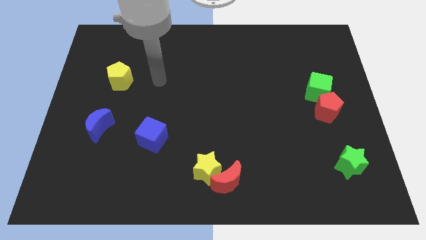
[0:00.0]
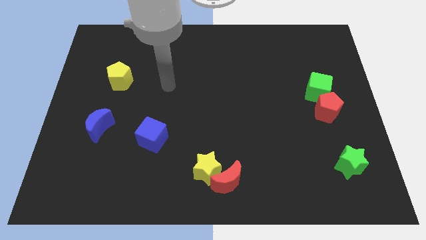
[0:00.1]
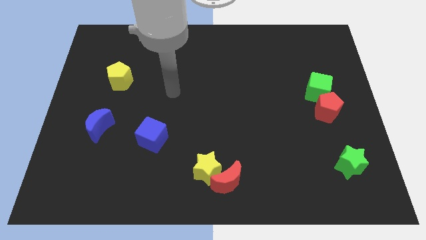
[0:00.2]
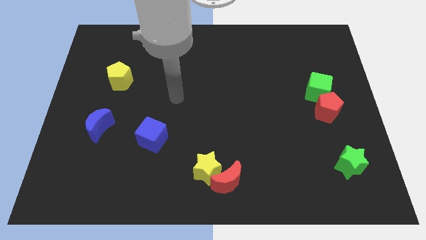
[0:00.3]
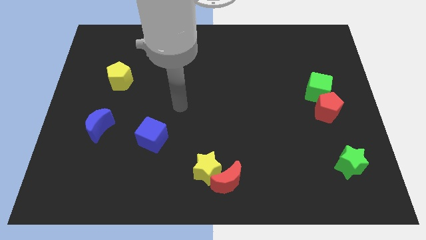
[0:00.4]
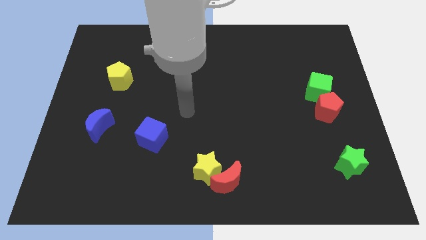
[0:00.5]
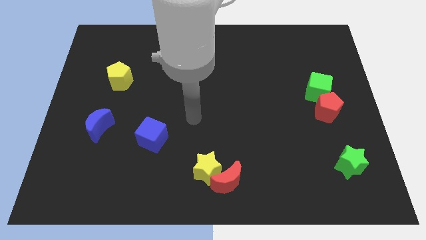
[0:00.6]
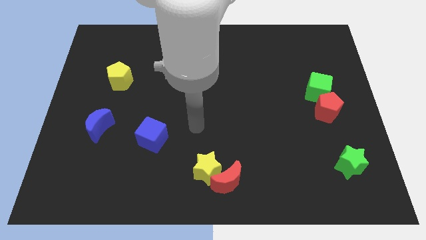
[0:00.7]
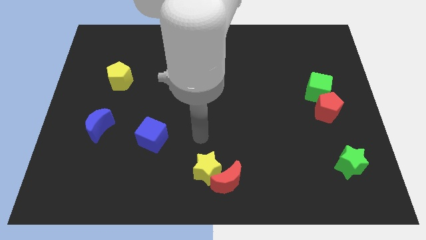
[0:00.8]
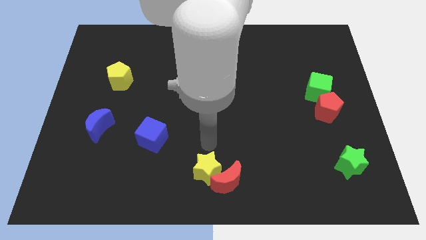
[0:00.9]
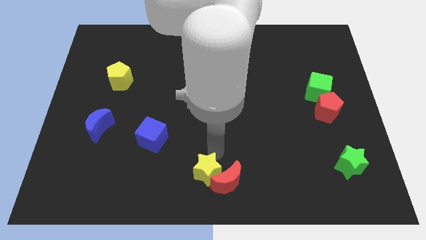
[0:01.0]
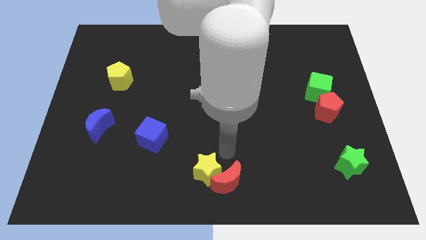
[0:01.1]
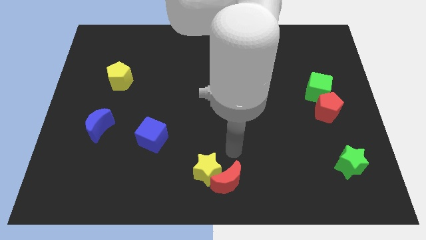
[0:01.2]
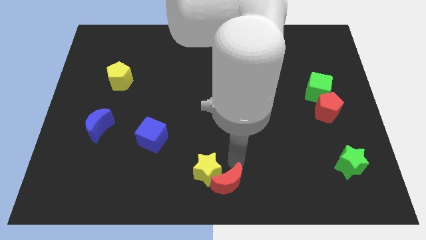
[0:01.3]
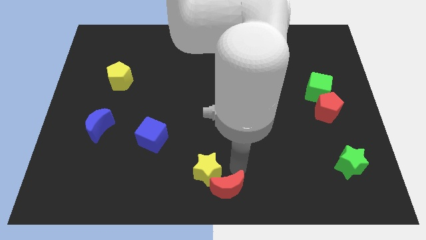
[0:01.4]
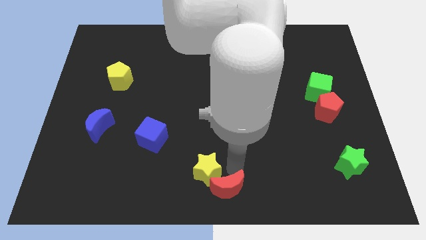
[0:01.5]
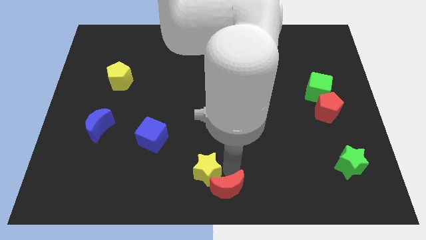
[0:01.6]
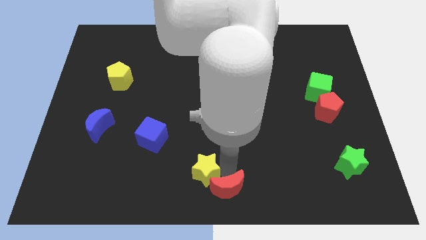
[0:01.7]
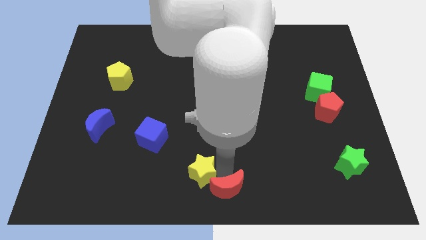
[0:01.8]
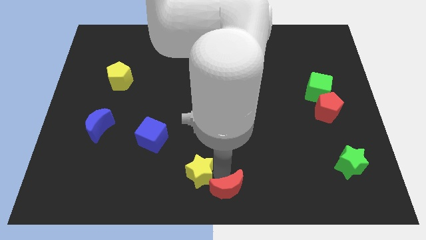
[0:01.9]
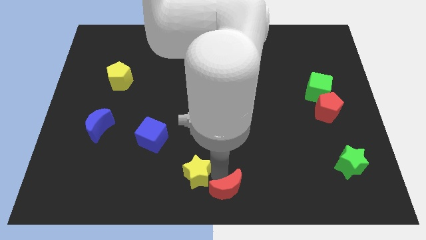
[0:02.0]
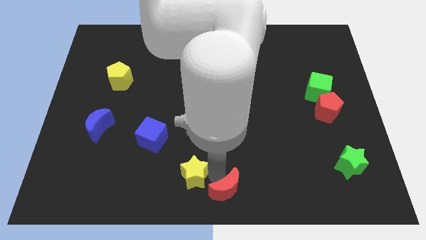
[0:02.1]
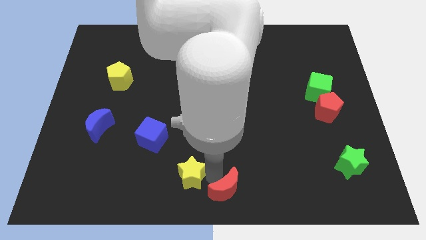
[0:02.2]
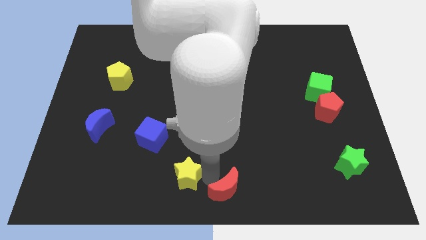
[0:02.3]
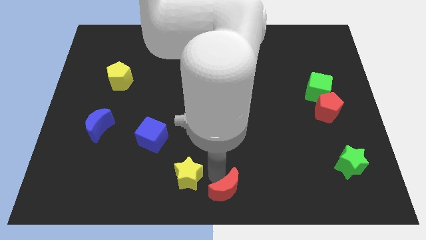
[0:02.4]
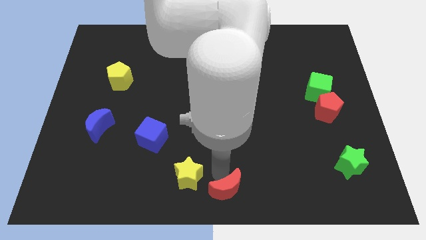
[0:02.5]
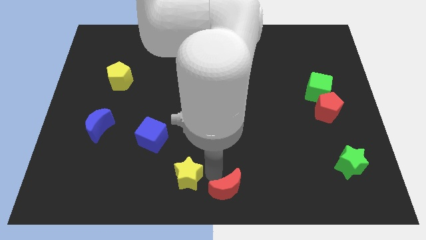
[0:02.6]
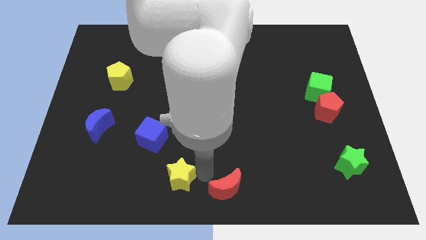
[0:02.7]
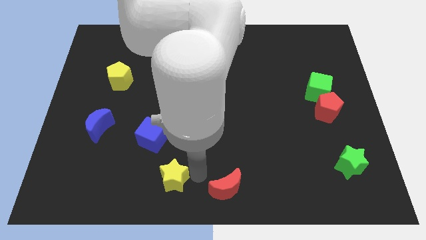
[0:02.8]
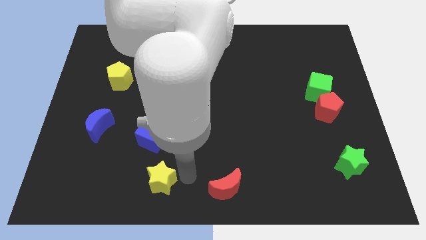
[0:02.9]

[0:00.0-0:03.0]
push the yellow star a little left

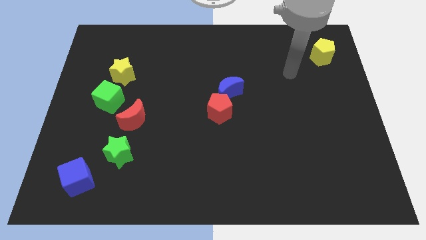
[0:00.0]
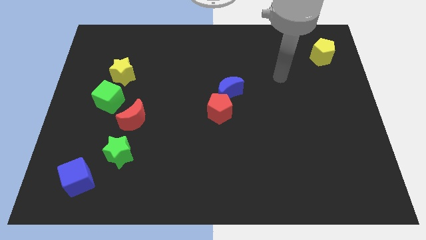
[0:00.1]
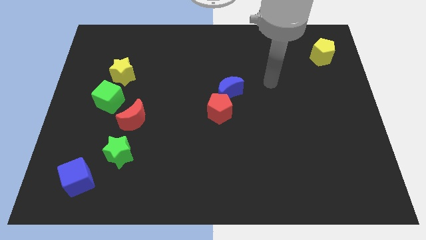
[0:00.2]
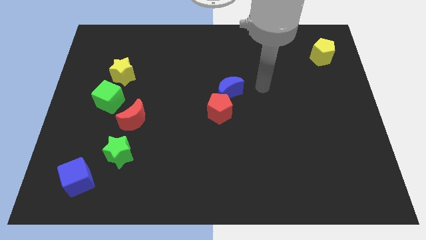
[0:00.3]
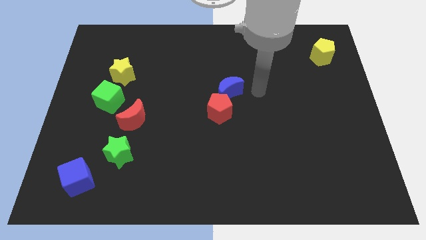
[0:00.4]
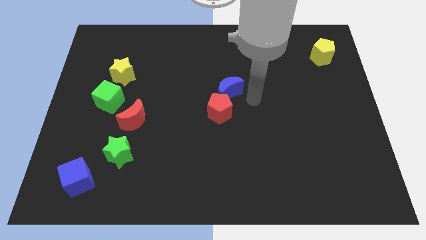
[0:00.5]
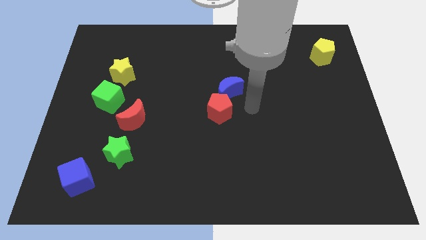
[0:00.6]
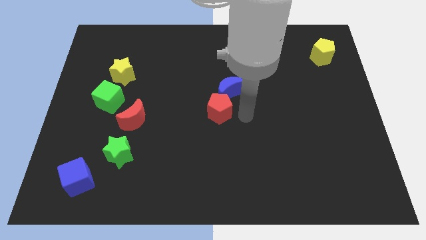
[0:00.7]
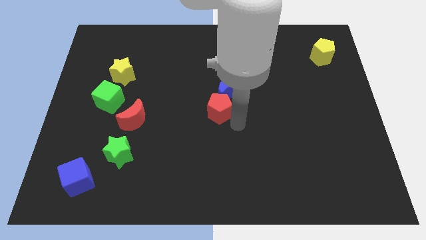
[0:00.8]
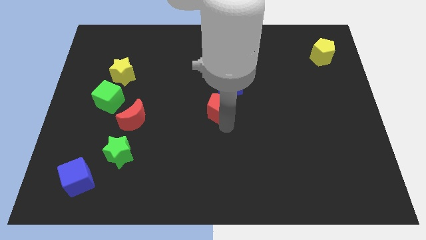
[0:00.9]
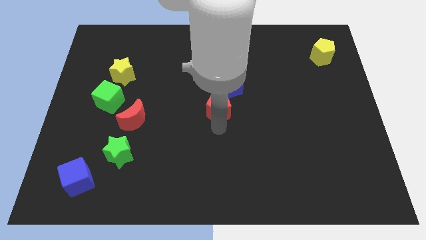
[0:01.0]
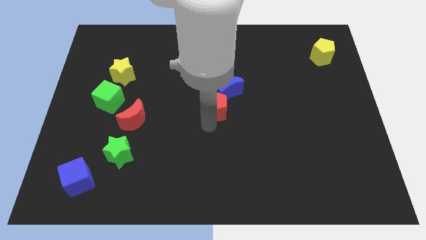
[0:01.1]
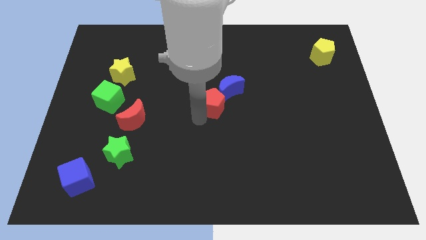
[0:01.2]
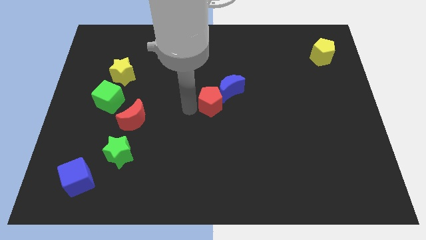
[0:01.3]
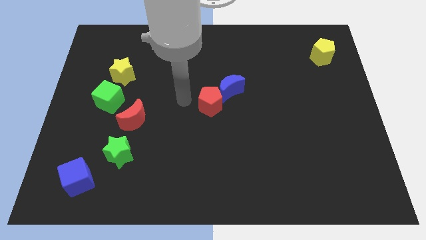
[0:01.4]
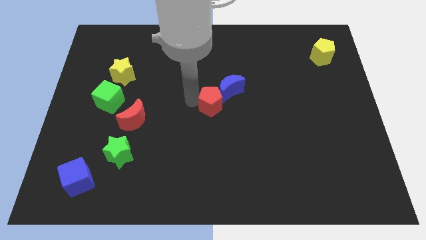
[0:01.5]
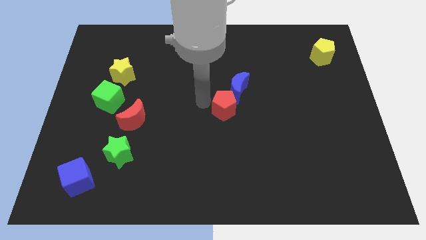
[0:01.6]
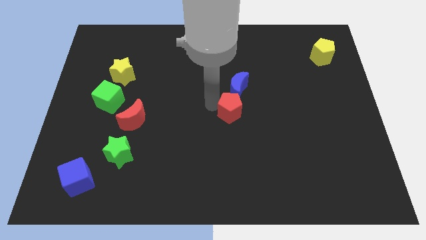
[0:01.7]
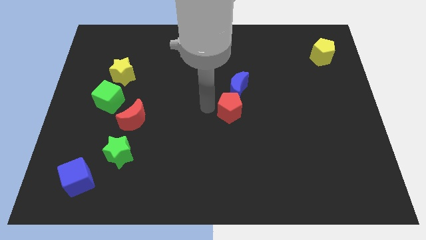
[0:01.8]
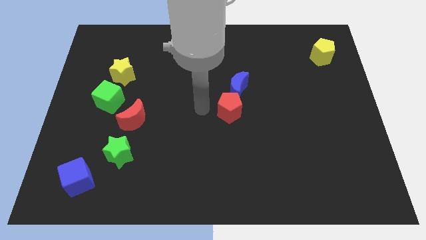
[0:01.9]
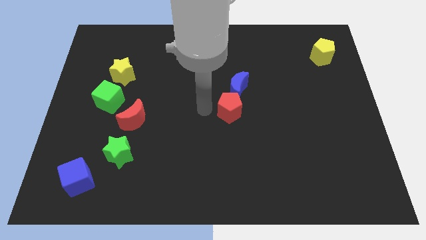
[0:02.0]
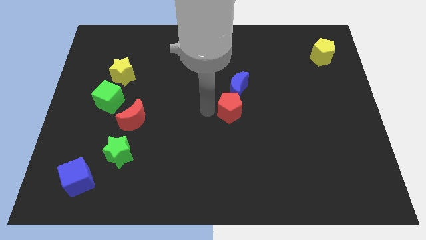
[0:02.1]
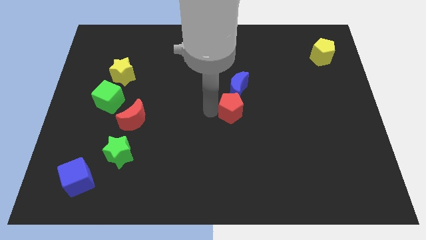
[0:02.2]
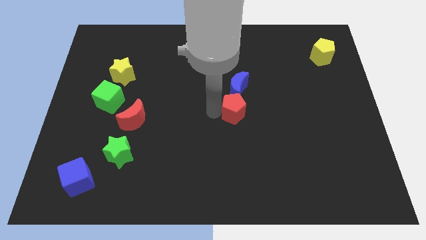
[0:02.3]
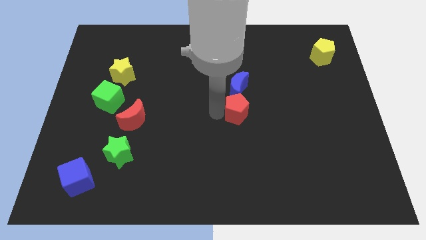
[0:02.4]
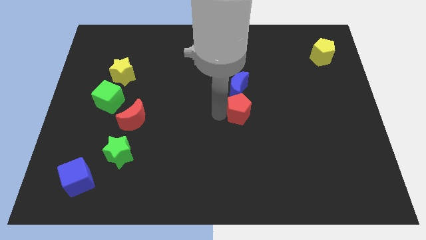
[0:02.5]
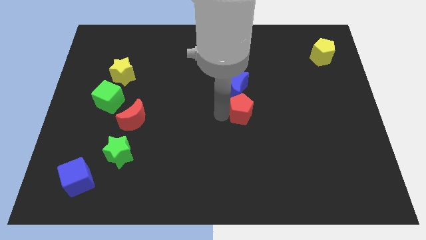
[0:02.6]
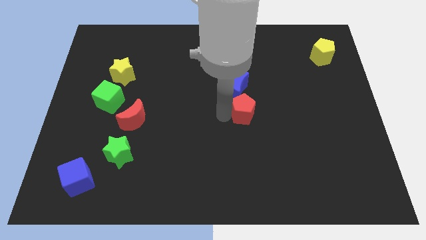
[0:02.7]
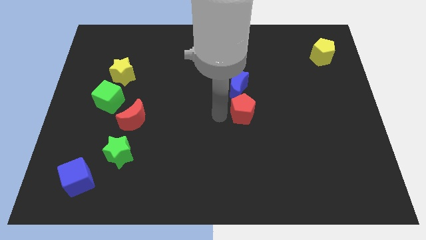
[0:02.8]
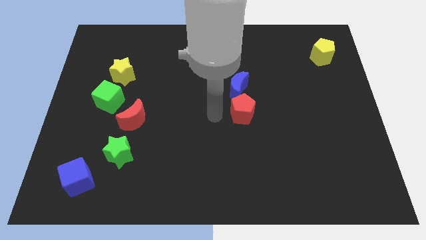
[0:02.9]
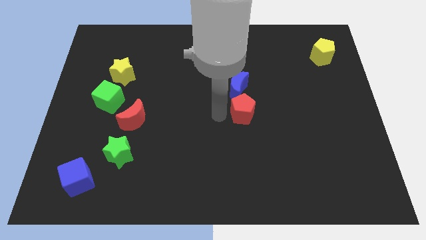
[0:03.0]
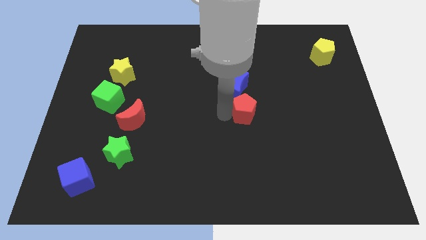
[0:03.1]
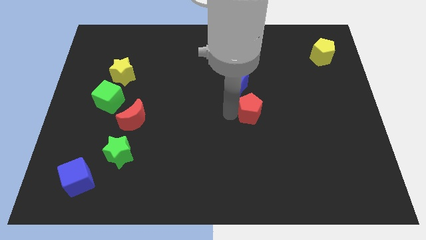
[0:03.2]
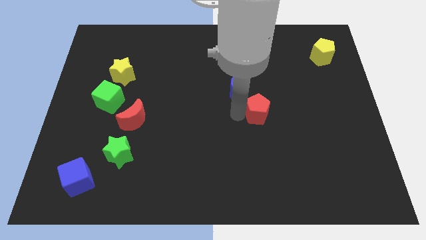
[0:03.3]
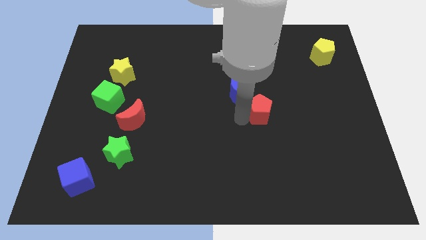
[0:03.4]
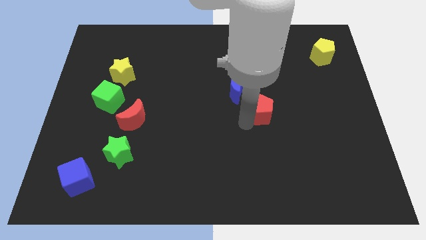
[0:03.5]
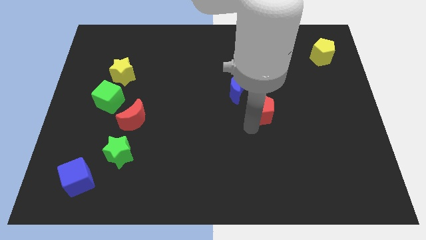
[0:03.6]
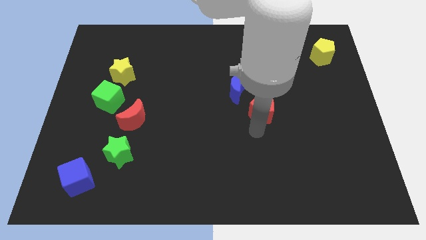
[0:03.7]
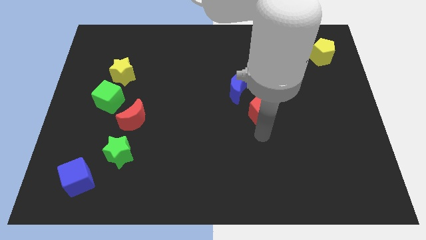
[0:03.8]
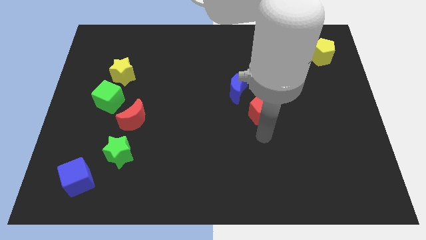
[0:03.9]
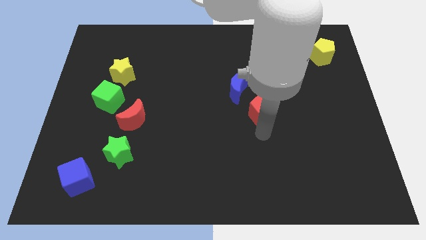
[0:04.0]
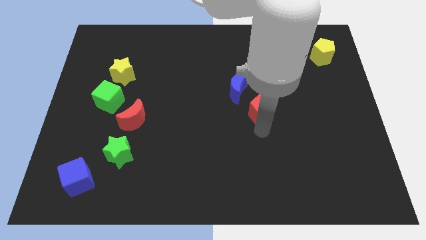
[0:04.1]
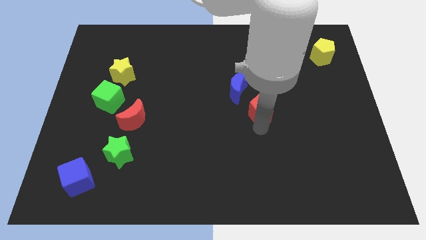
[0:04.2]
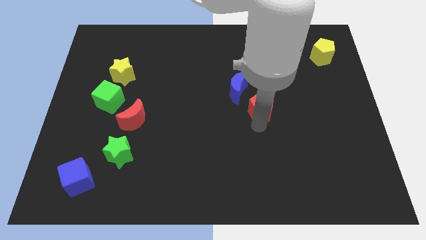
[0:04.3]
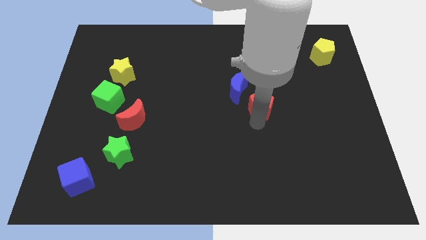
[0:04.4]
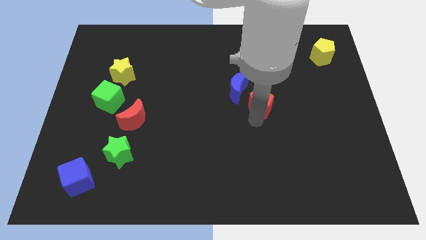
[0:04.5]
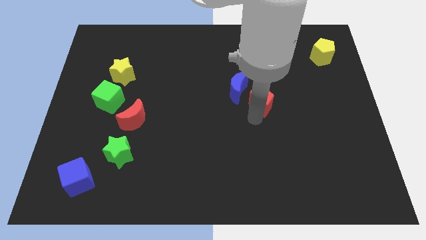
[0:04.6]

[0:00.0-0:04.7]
slightly push the red pentagon diagonally up and to the right

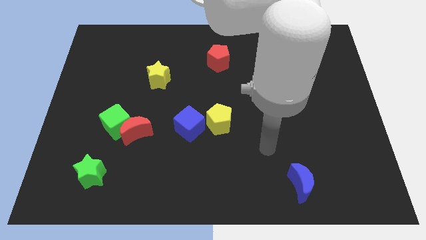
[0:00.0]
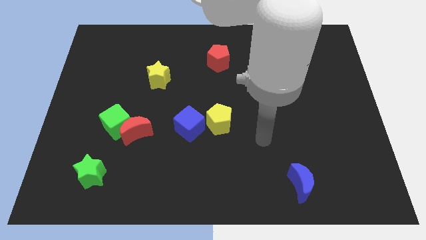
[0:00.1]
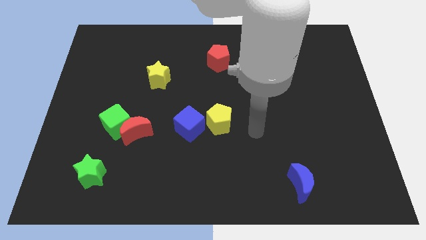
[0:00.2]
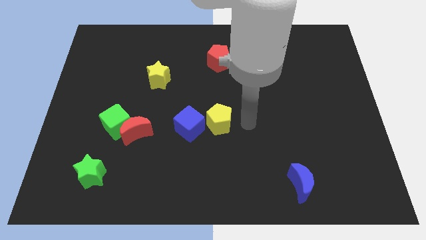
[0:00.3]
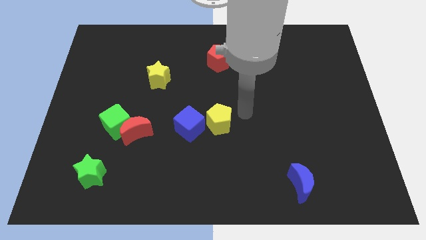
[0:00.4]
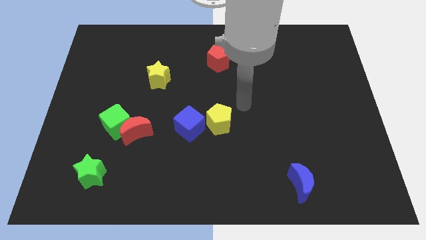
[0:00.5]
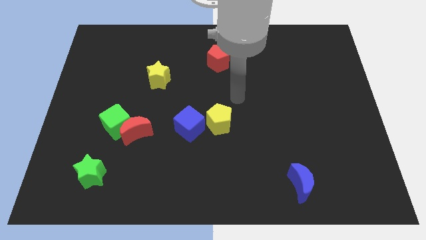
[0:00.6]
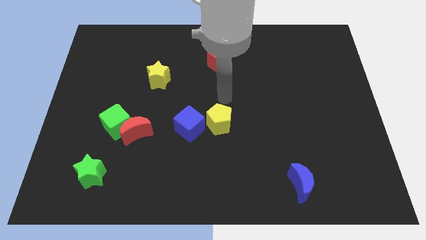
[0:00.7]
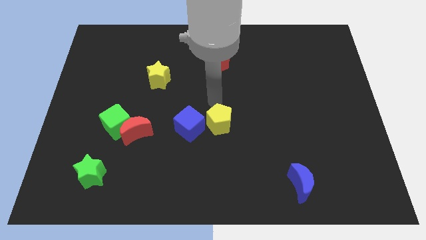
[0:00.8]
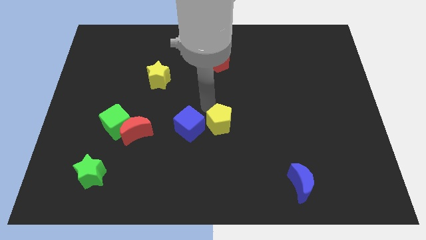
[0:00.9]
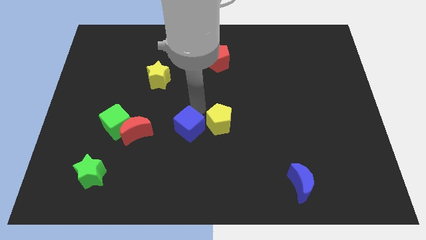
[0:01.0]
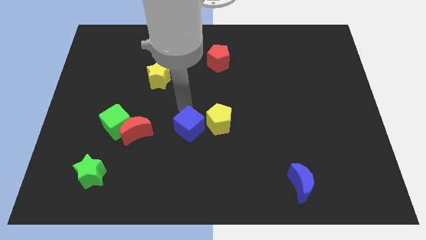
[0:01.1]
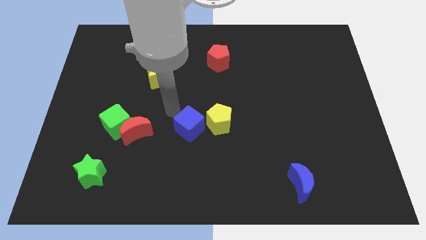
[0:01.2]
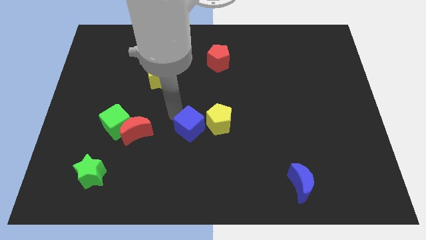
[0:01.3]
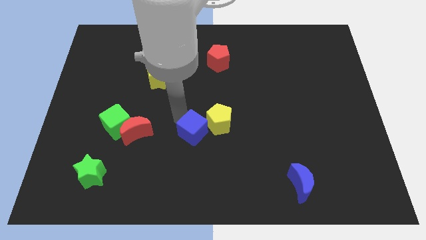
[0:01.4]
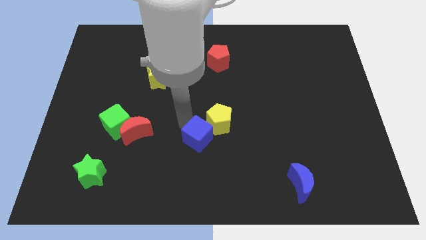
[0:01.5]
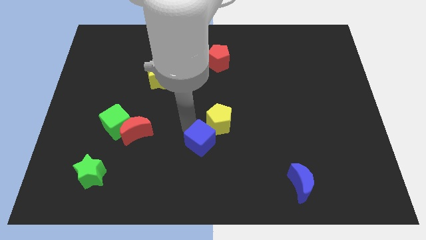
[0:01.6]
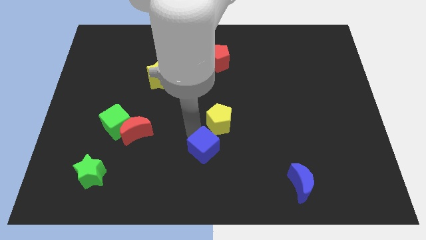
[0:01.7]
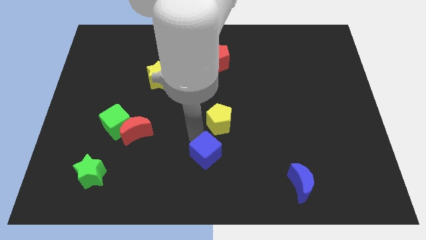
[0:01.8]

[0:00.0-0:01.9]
slightly push the blue cube downwards and to the right
